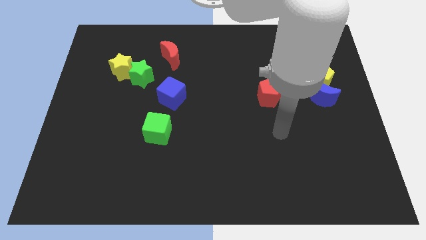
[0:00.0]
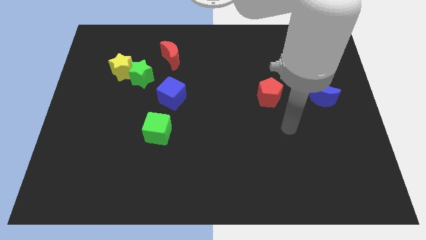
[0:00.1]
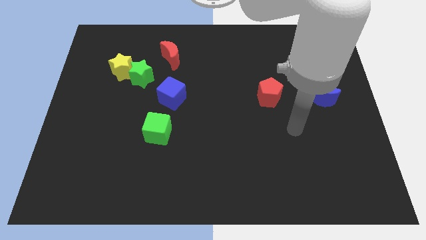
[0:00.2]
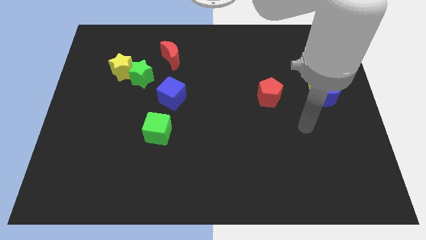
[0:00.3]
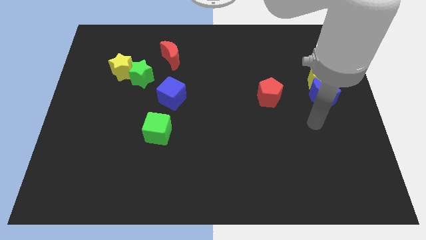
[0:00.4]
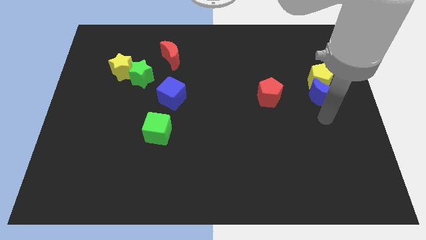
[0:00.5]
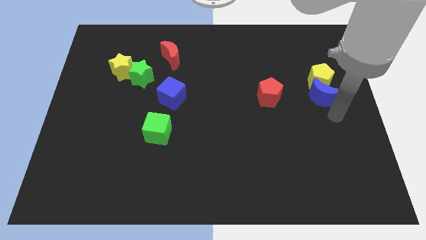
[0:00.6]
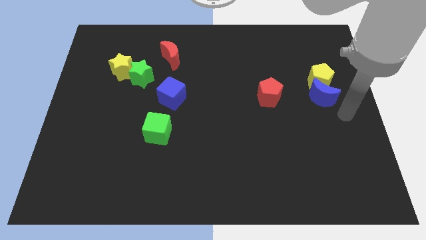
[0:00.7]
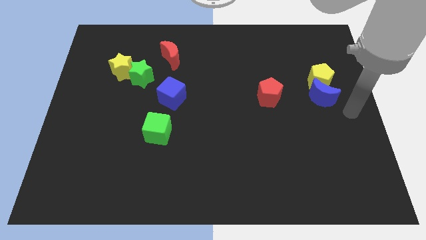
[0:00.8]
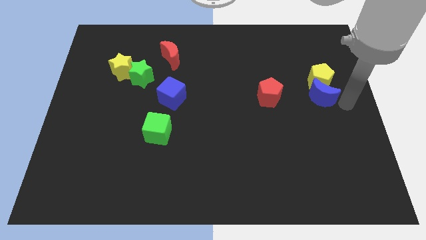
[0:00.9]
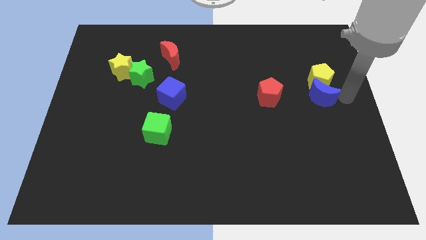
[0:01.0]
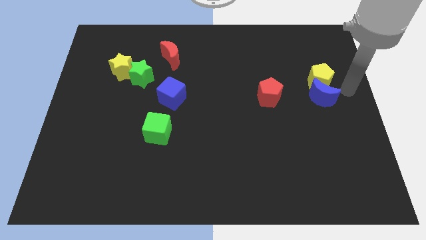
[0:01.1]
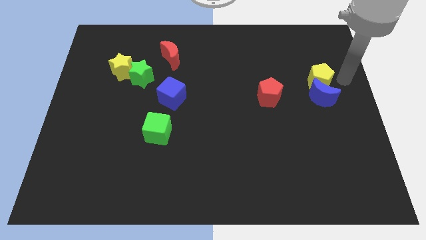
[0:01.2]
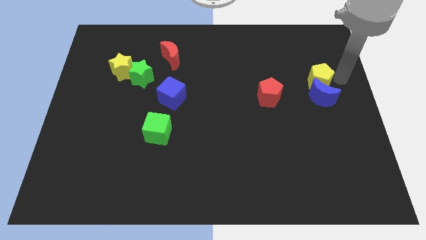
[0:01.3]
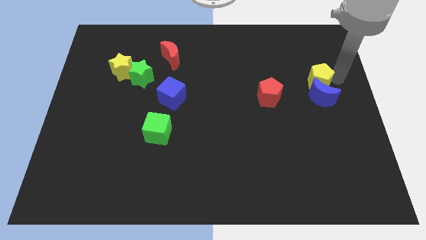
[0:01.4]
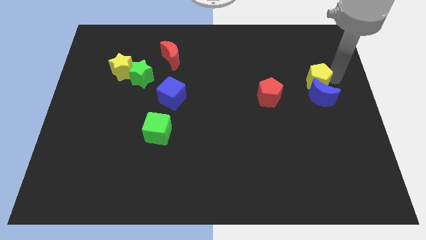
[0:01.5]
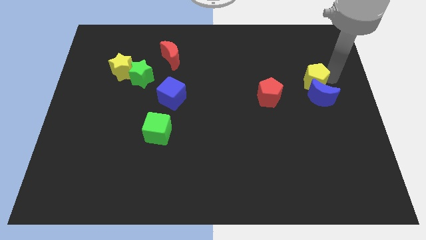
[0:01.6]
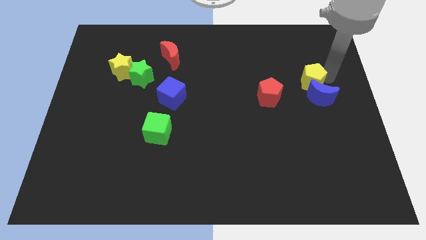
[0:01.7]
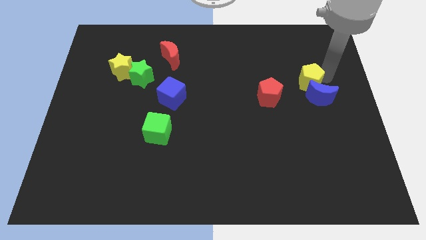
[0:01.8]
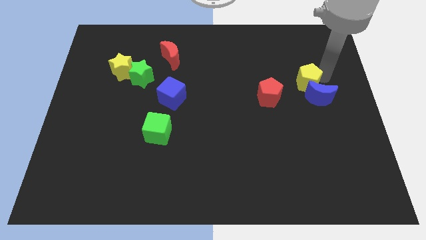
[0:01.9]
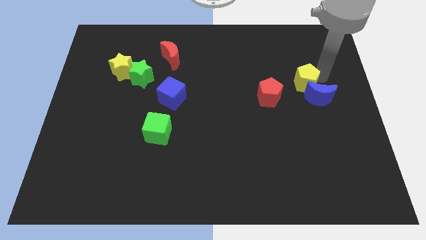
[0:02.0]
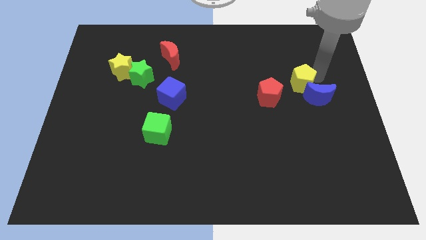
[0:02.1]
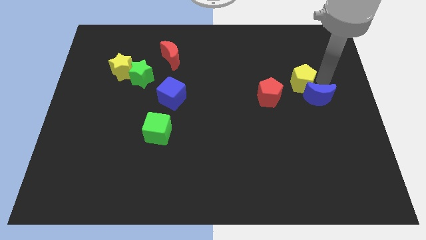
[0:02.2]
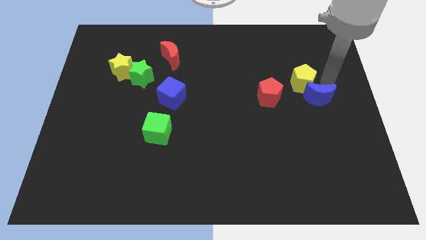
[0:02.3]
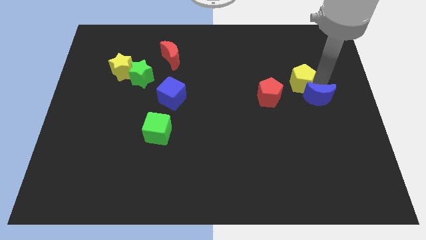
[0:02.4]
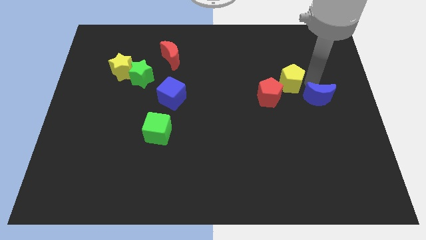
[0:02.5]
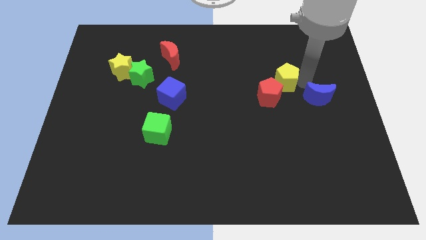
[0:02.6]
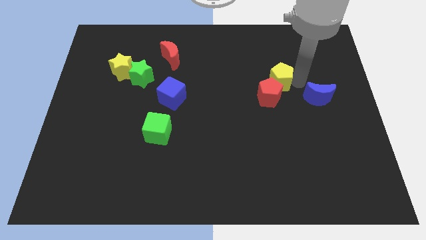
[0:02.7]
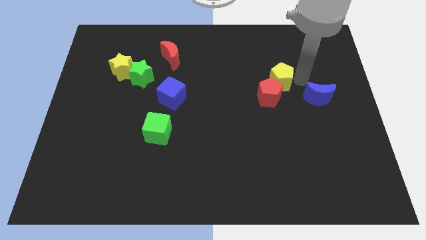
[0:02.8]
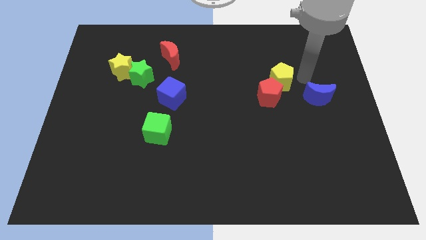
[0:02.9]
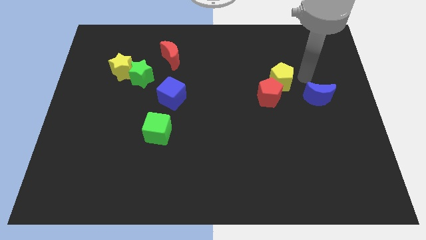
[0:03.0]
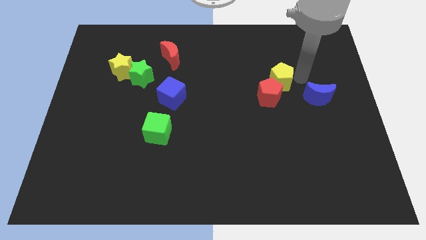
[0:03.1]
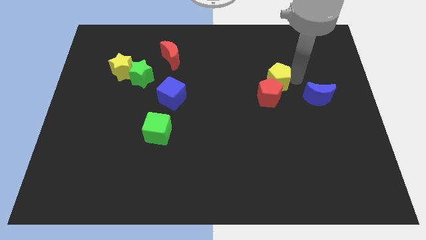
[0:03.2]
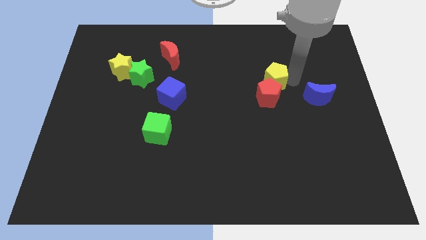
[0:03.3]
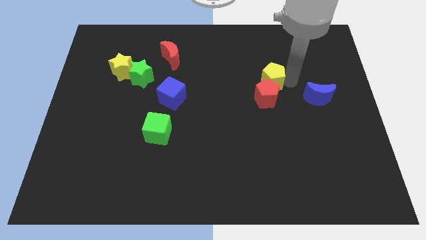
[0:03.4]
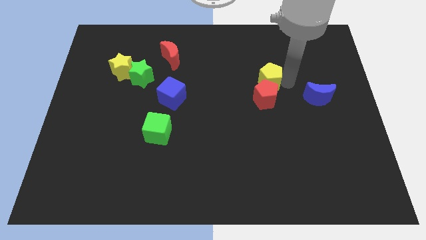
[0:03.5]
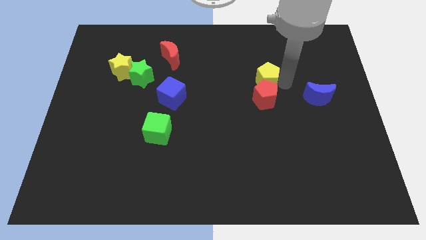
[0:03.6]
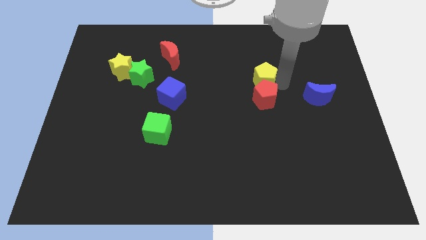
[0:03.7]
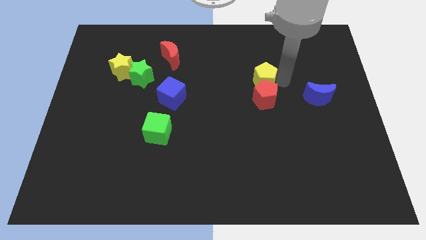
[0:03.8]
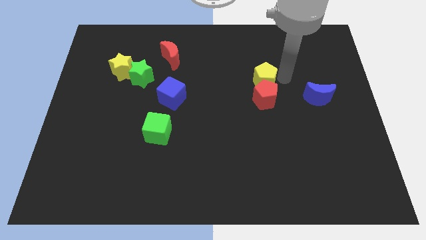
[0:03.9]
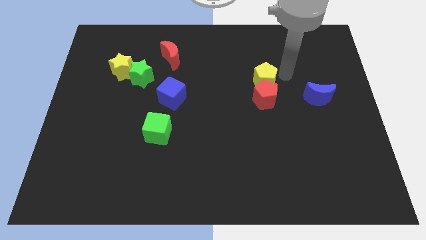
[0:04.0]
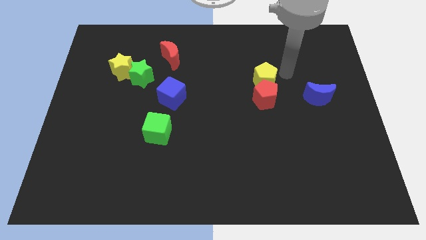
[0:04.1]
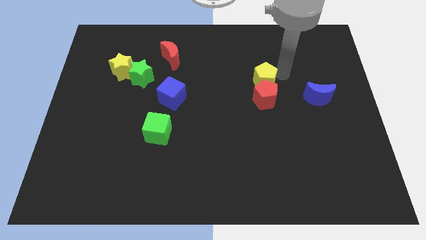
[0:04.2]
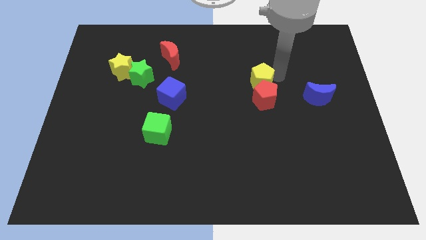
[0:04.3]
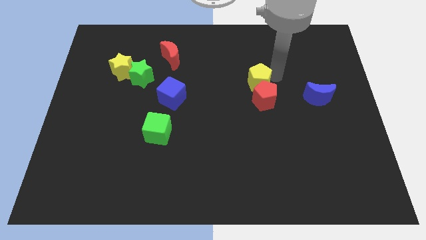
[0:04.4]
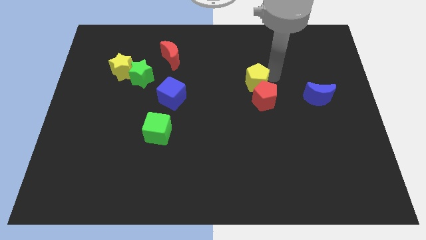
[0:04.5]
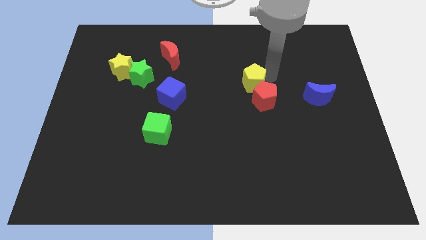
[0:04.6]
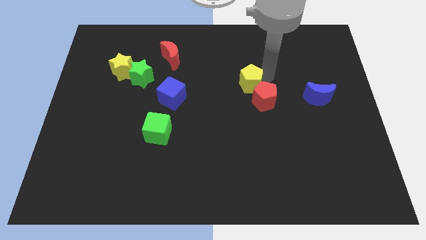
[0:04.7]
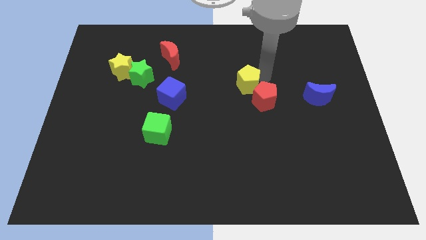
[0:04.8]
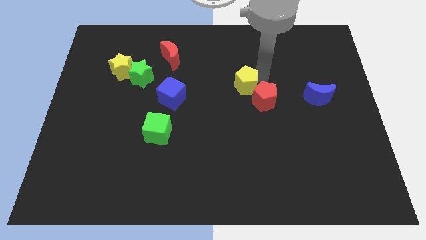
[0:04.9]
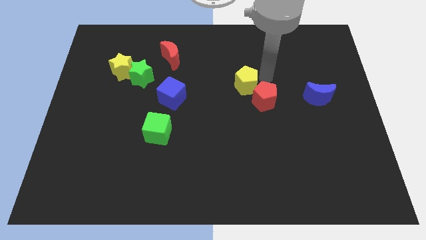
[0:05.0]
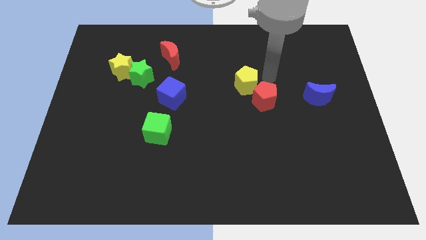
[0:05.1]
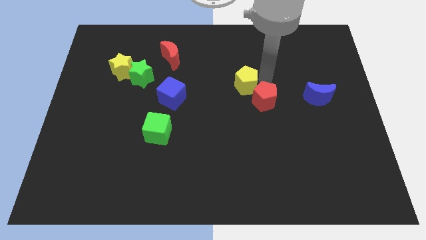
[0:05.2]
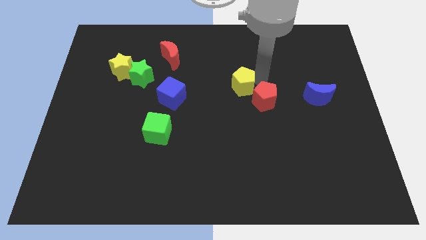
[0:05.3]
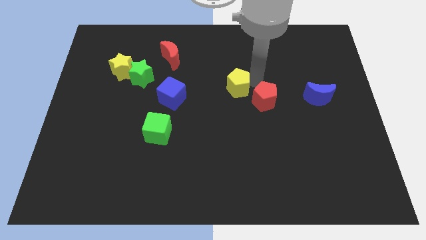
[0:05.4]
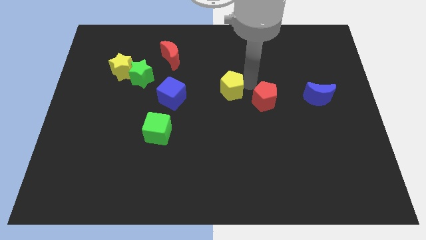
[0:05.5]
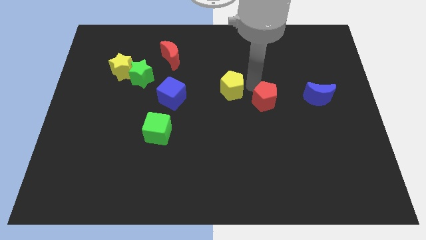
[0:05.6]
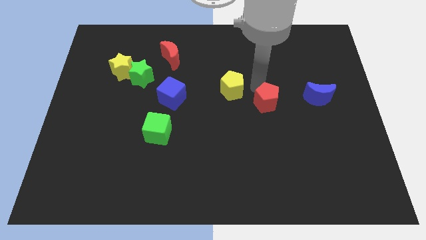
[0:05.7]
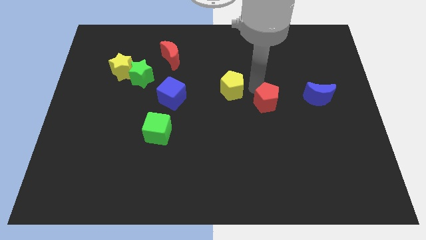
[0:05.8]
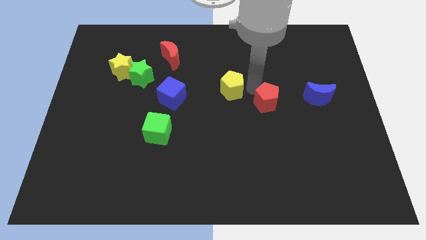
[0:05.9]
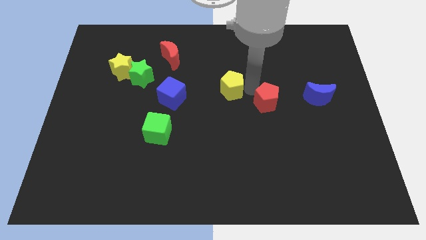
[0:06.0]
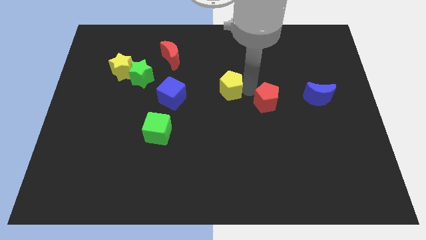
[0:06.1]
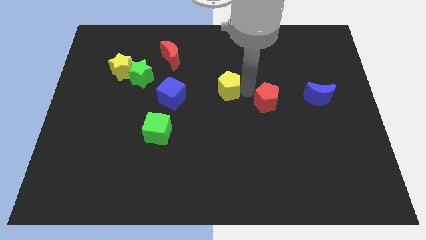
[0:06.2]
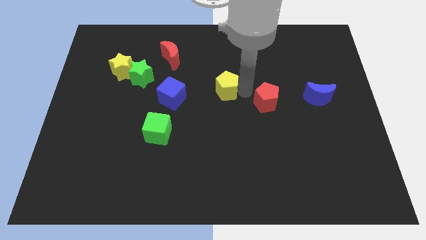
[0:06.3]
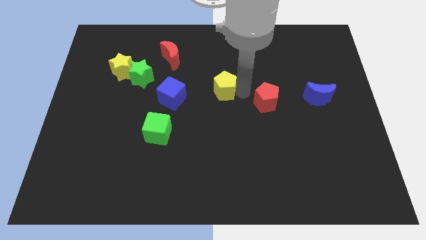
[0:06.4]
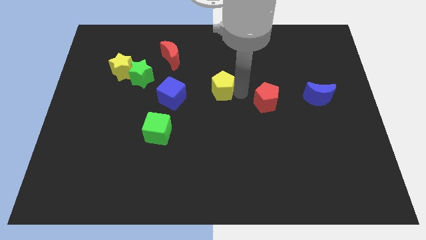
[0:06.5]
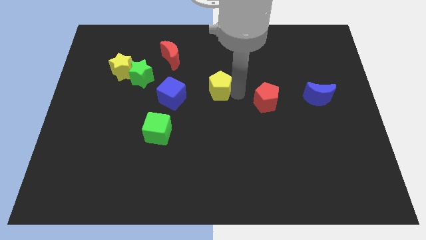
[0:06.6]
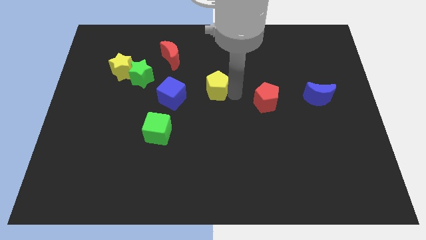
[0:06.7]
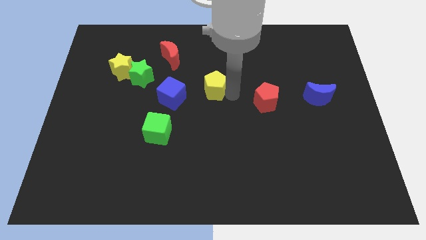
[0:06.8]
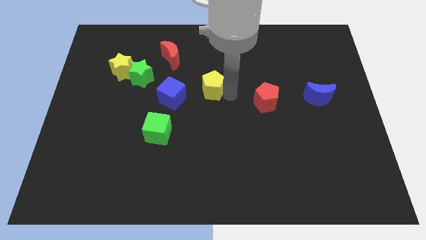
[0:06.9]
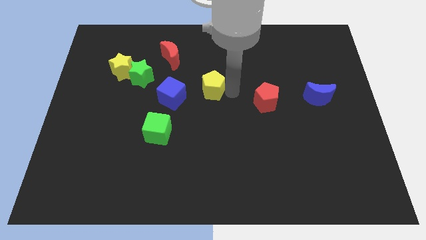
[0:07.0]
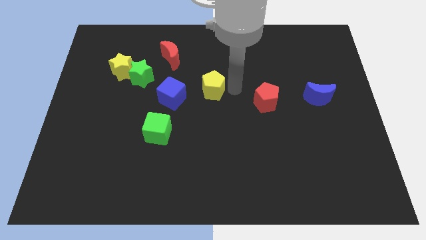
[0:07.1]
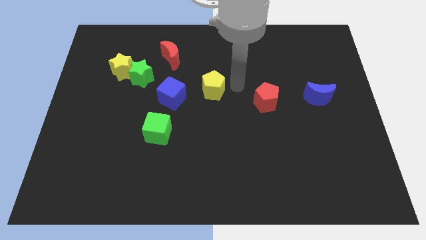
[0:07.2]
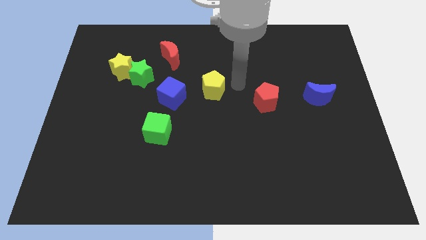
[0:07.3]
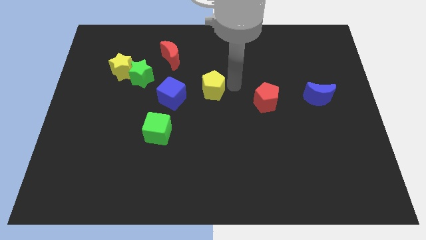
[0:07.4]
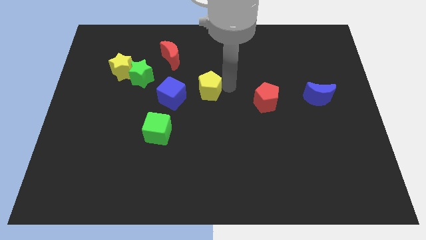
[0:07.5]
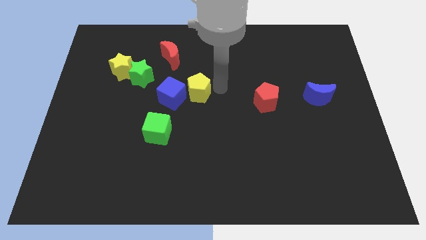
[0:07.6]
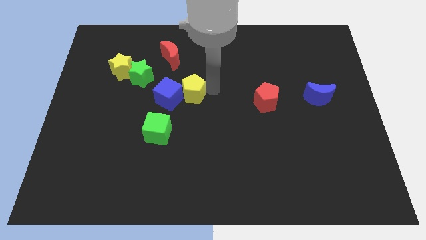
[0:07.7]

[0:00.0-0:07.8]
slide the yellow pentagon close to the blue cube
